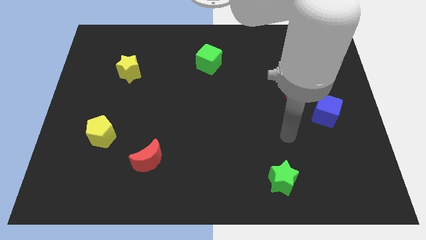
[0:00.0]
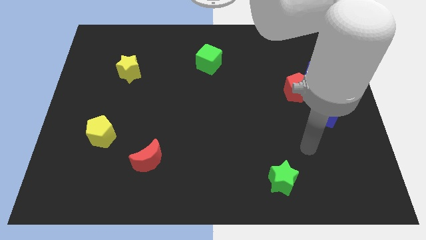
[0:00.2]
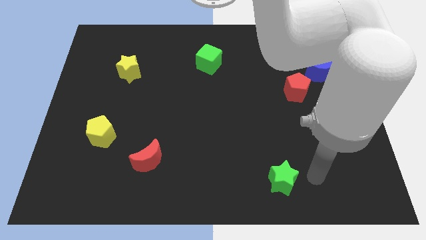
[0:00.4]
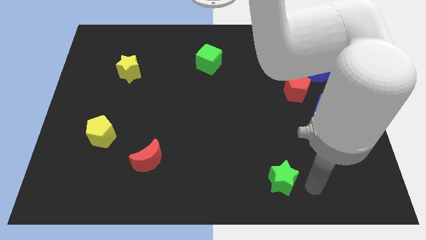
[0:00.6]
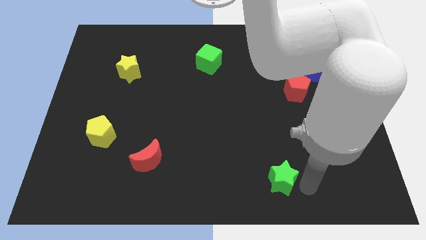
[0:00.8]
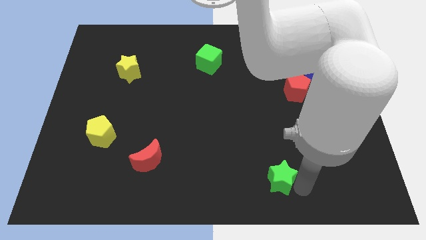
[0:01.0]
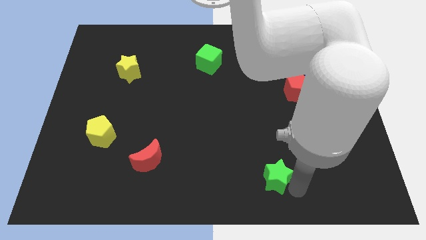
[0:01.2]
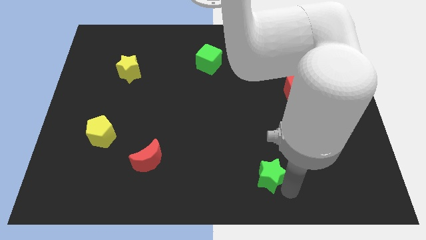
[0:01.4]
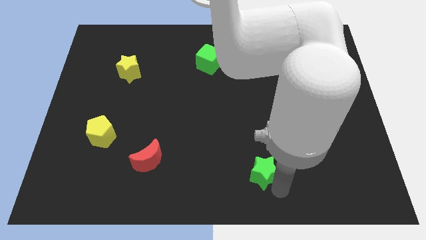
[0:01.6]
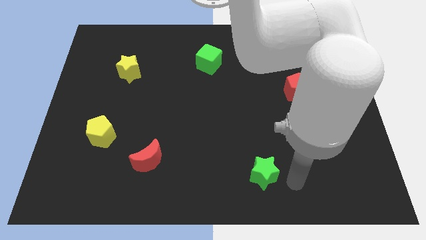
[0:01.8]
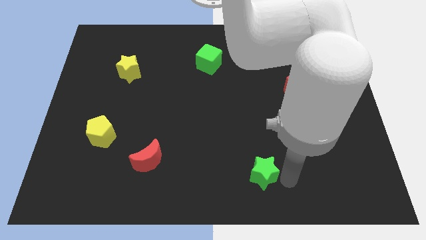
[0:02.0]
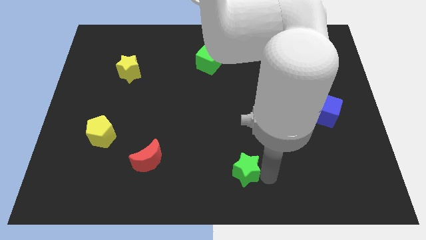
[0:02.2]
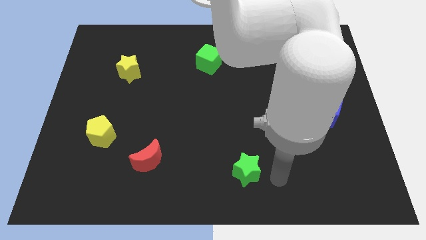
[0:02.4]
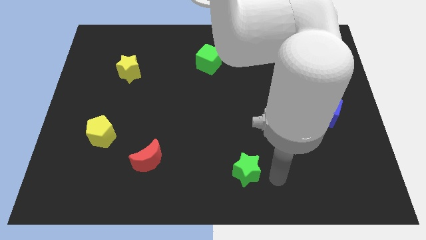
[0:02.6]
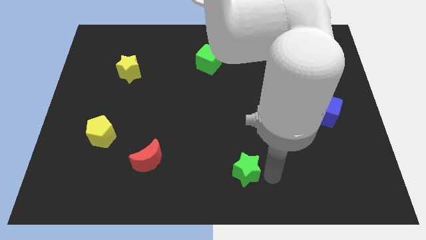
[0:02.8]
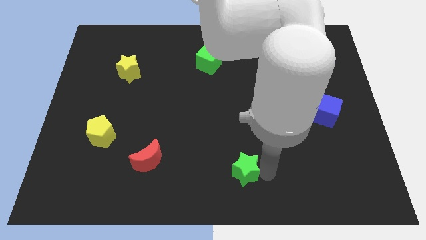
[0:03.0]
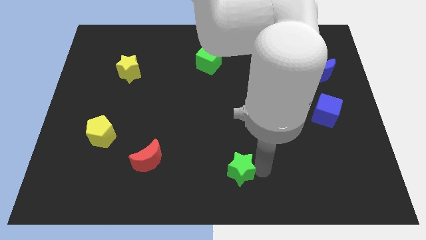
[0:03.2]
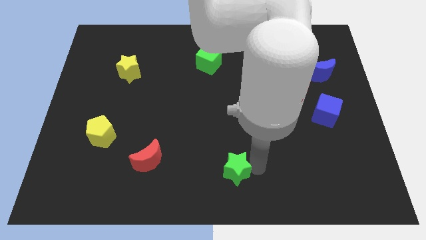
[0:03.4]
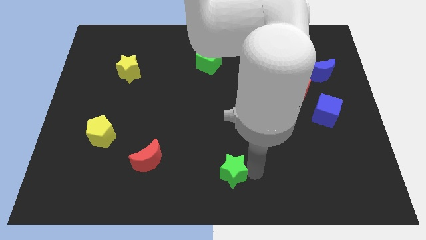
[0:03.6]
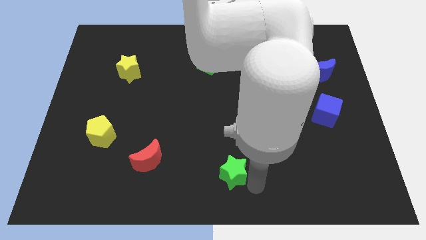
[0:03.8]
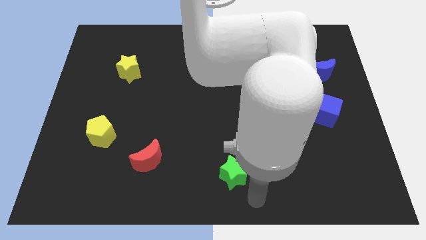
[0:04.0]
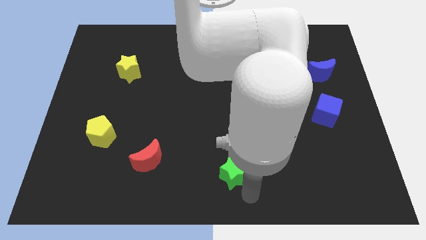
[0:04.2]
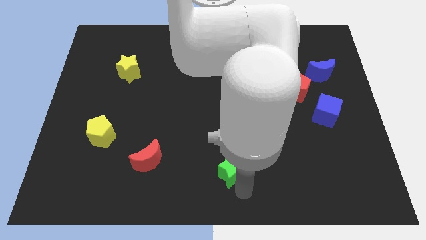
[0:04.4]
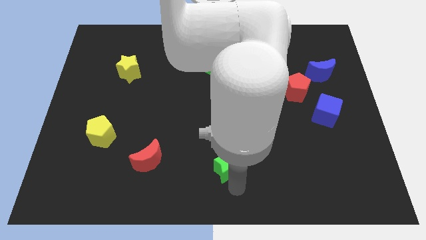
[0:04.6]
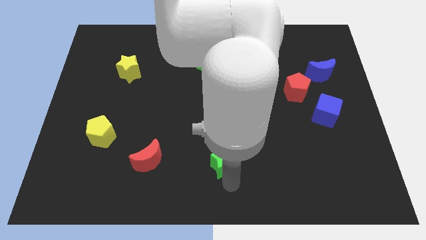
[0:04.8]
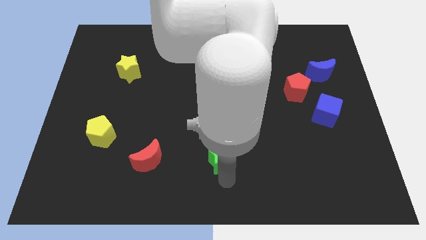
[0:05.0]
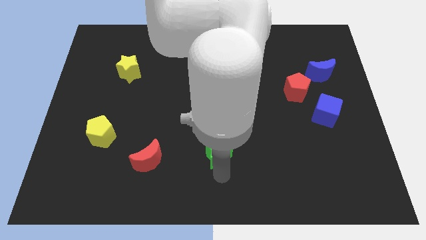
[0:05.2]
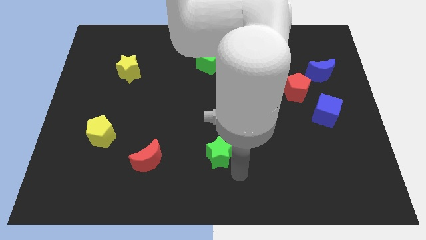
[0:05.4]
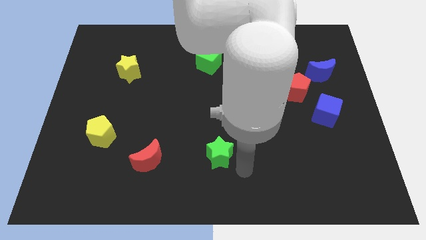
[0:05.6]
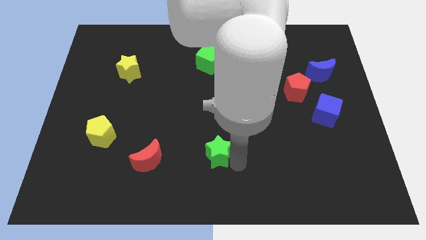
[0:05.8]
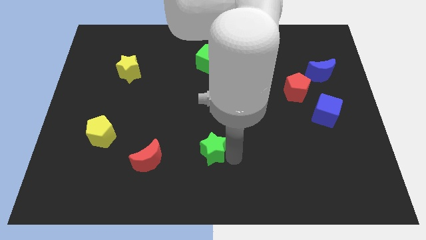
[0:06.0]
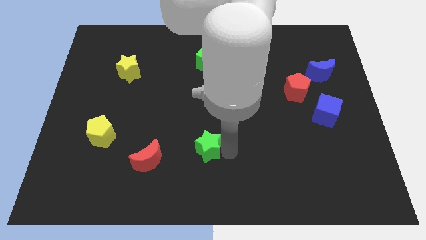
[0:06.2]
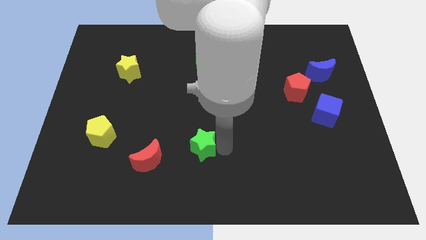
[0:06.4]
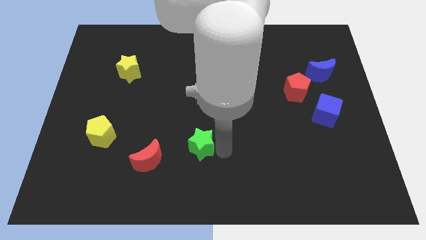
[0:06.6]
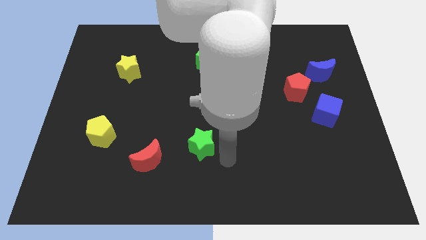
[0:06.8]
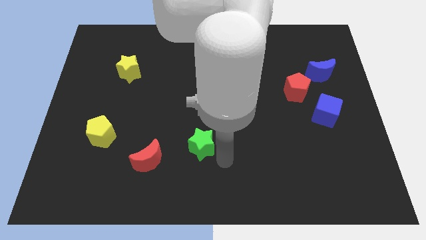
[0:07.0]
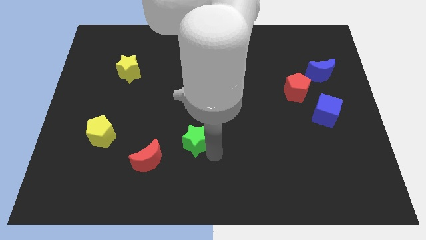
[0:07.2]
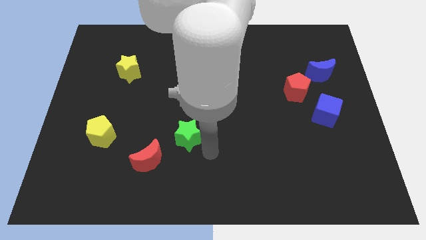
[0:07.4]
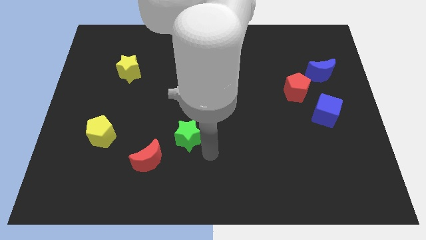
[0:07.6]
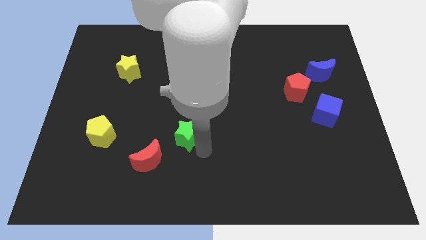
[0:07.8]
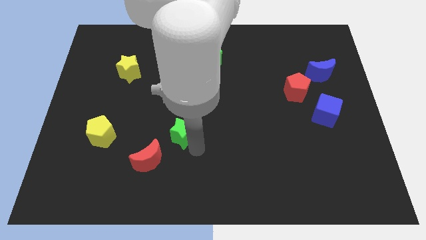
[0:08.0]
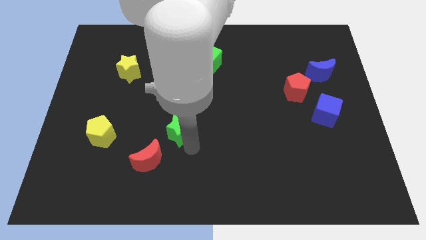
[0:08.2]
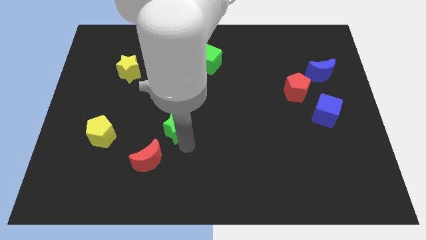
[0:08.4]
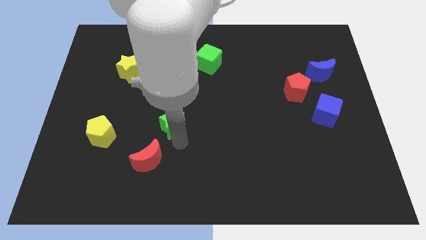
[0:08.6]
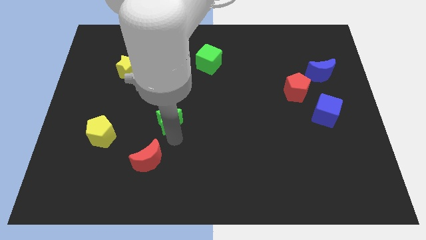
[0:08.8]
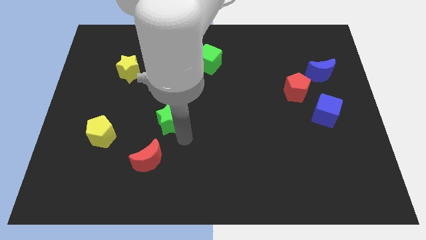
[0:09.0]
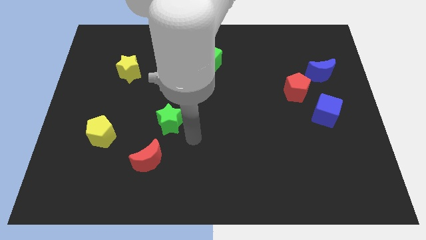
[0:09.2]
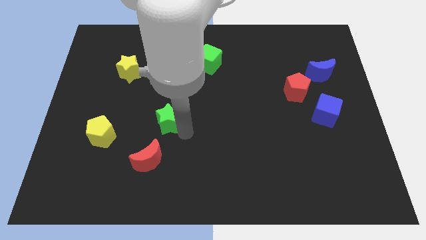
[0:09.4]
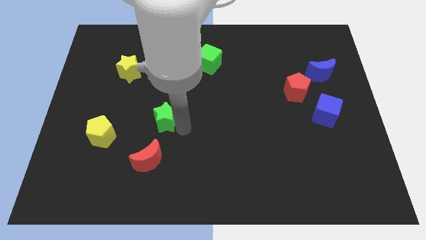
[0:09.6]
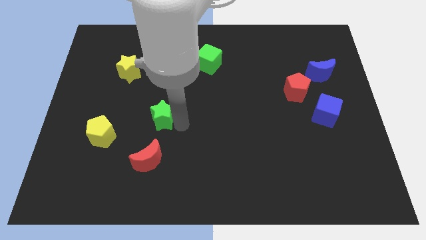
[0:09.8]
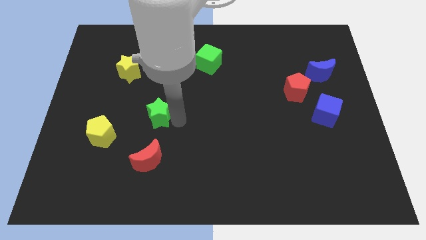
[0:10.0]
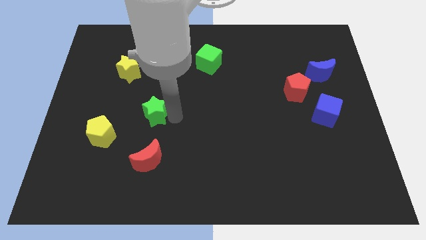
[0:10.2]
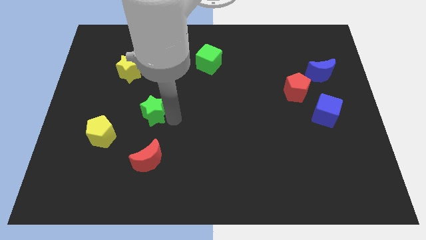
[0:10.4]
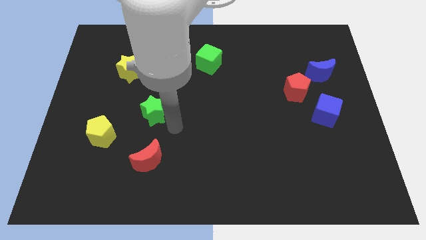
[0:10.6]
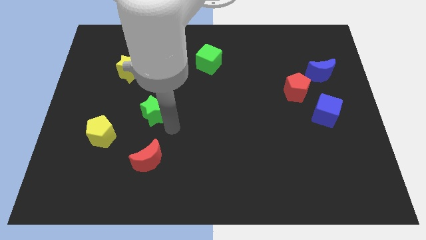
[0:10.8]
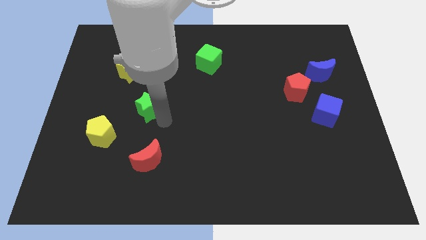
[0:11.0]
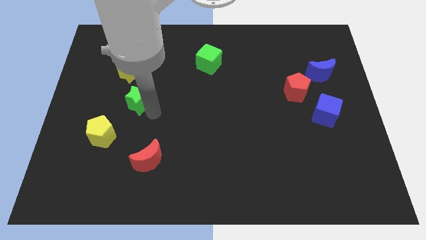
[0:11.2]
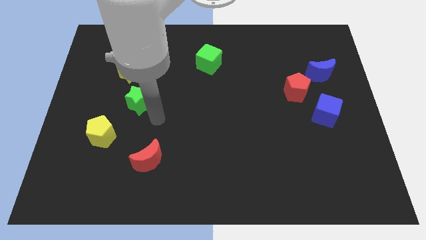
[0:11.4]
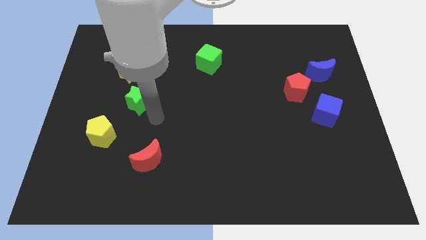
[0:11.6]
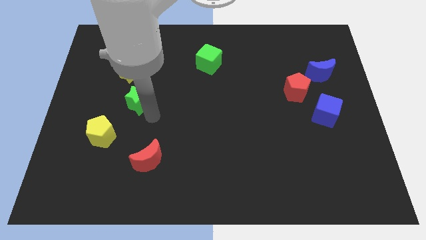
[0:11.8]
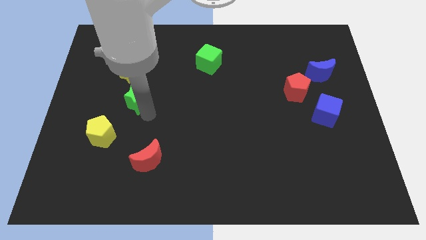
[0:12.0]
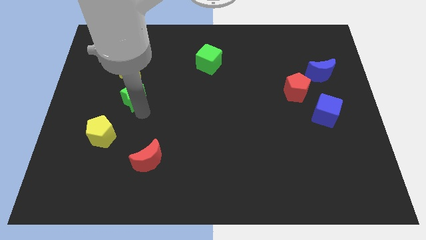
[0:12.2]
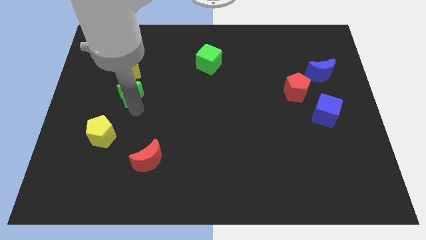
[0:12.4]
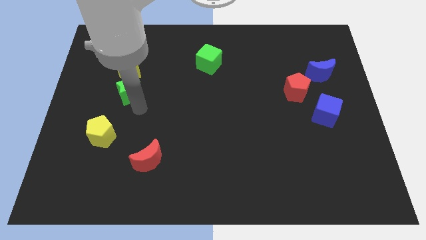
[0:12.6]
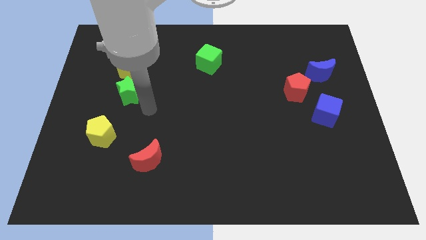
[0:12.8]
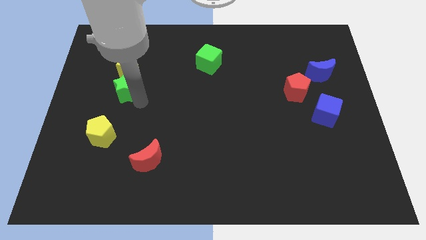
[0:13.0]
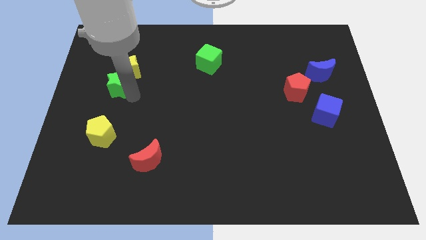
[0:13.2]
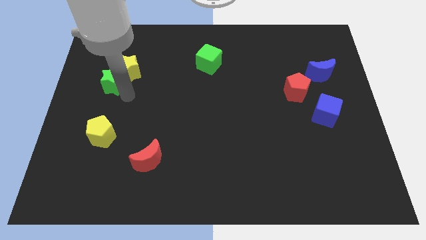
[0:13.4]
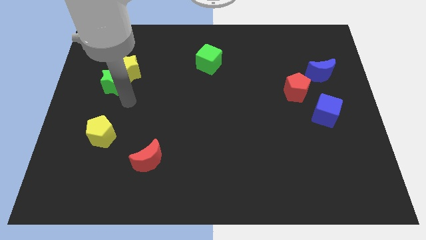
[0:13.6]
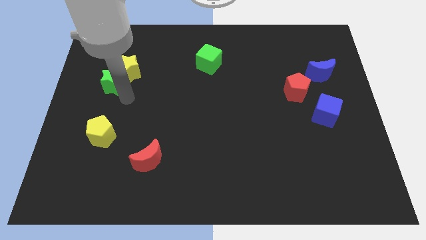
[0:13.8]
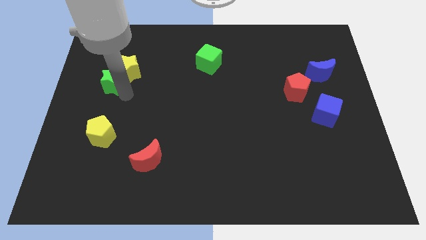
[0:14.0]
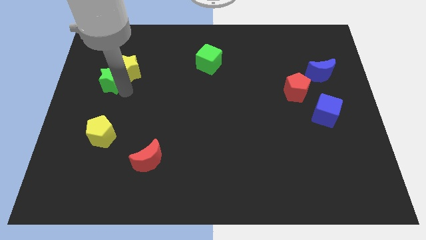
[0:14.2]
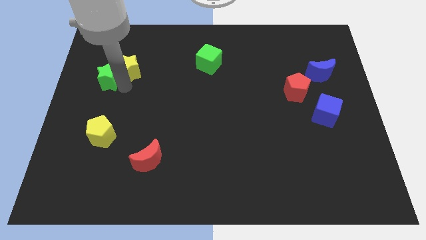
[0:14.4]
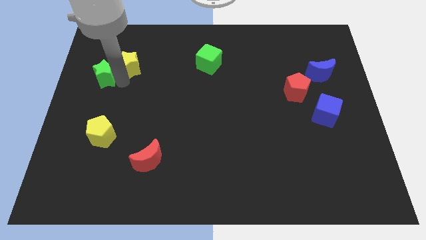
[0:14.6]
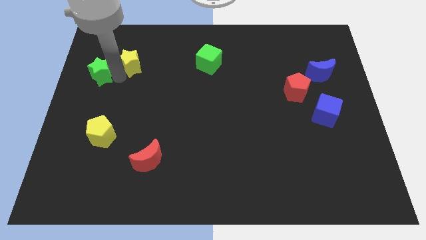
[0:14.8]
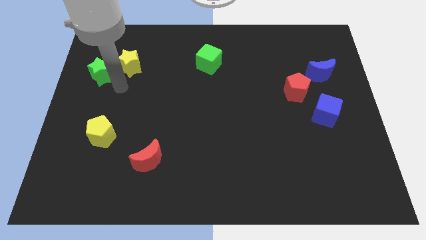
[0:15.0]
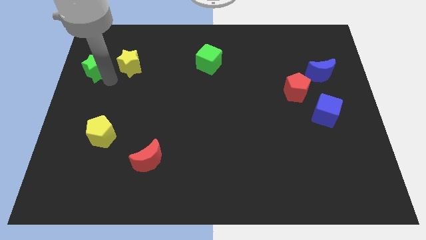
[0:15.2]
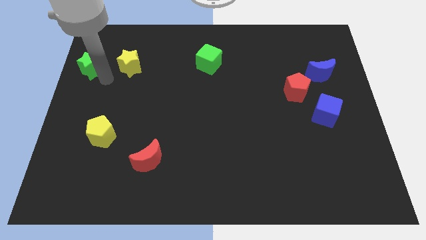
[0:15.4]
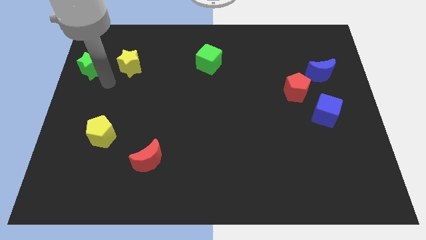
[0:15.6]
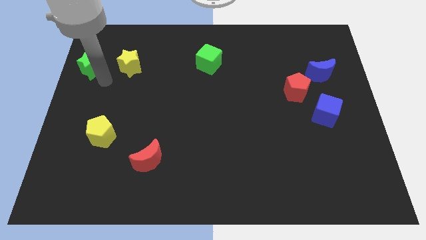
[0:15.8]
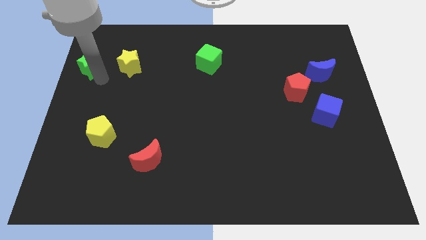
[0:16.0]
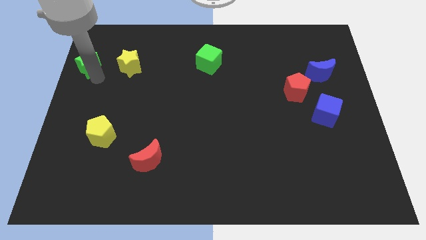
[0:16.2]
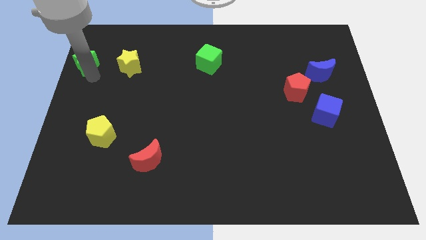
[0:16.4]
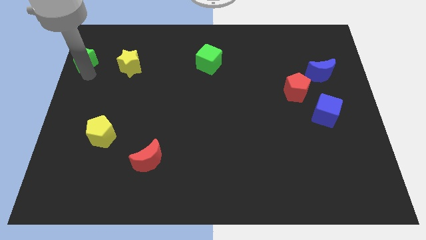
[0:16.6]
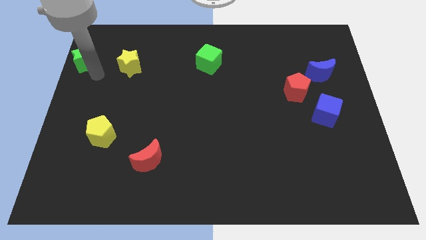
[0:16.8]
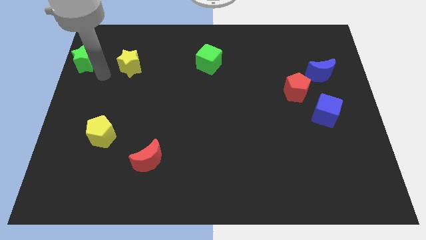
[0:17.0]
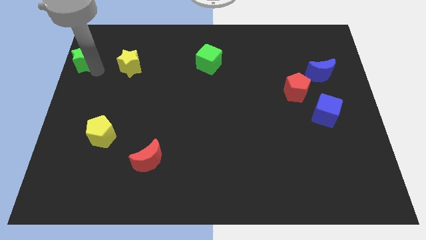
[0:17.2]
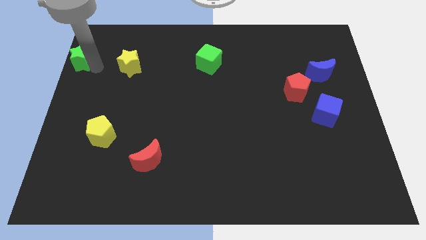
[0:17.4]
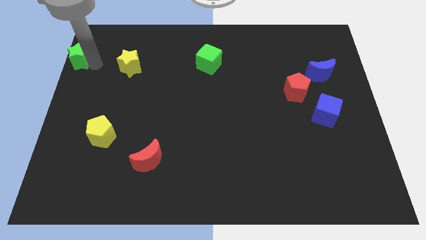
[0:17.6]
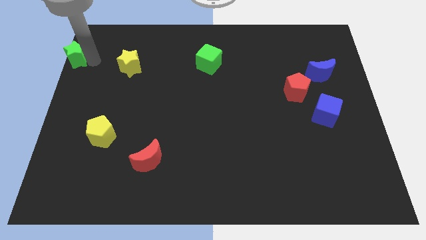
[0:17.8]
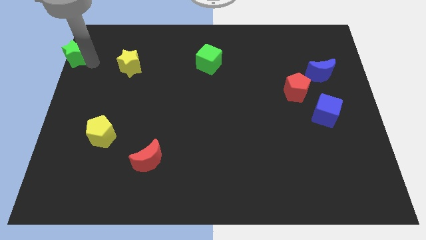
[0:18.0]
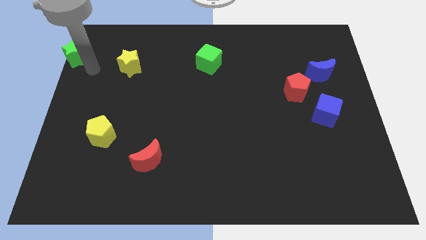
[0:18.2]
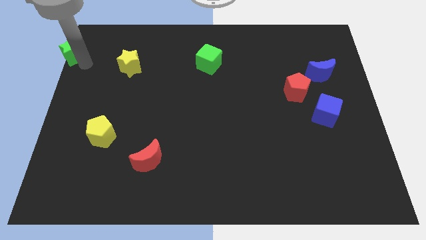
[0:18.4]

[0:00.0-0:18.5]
push the green star to the upper left corner
